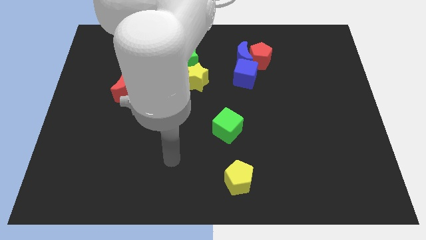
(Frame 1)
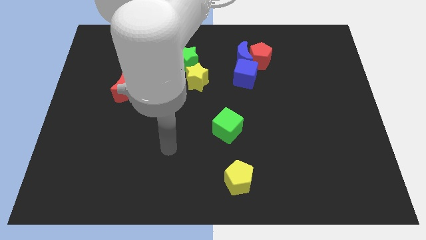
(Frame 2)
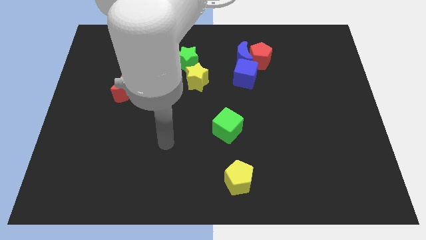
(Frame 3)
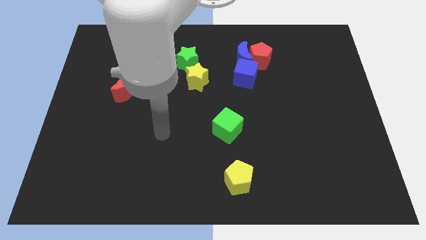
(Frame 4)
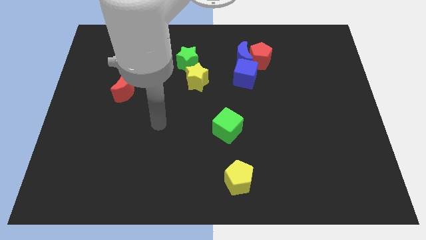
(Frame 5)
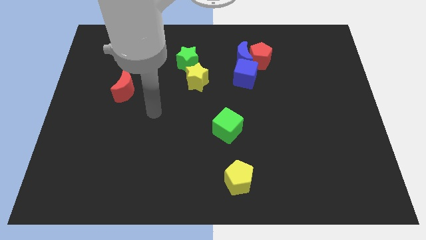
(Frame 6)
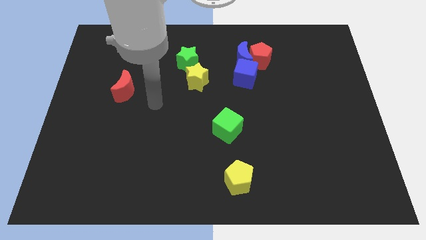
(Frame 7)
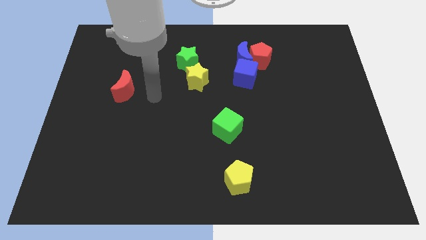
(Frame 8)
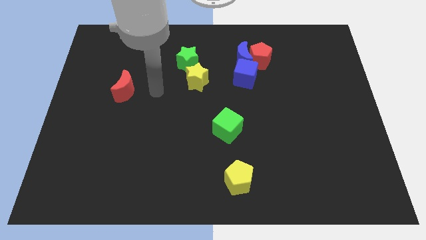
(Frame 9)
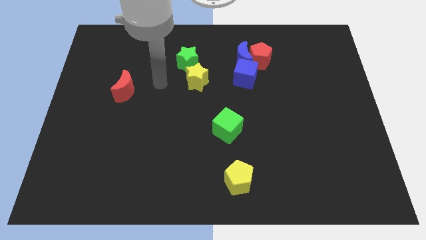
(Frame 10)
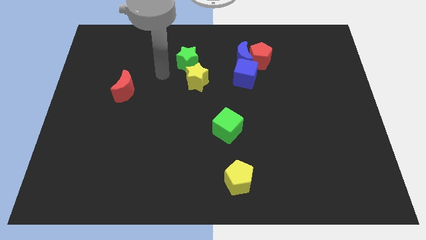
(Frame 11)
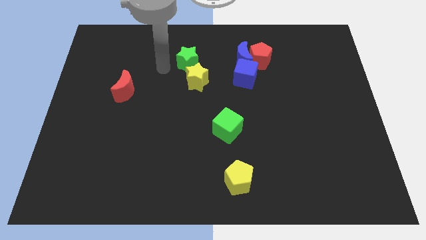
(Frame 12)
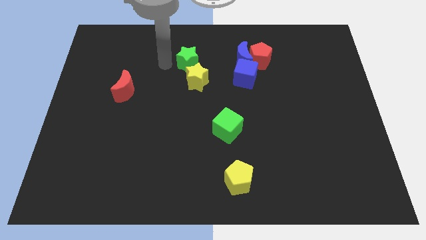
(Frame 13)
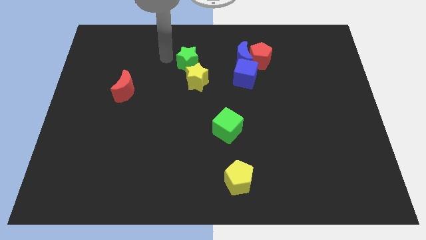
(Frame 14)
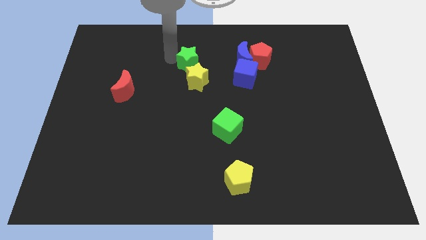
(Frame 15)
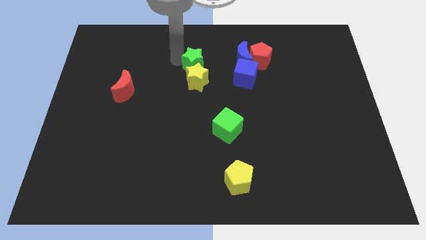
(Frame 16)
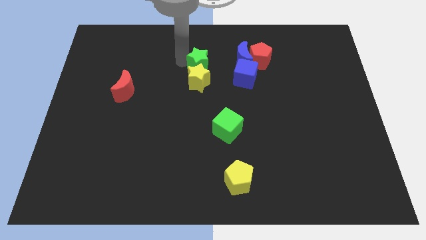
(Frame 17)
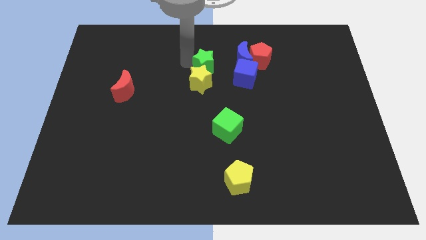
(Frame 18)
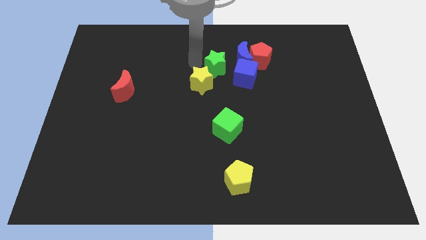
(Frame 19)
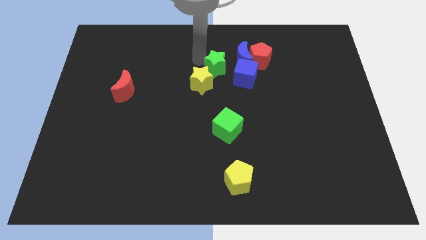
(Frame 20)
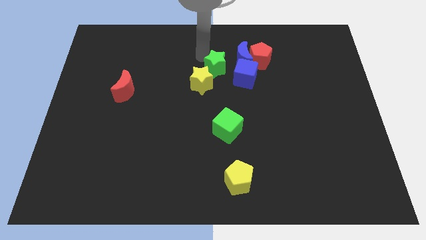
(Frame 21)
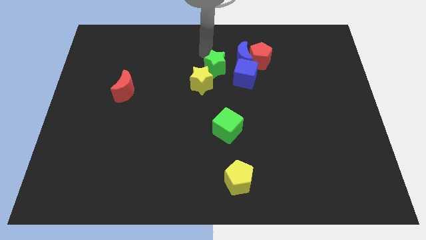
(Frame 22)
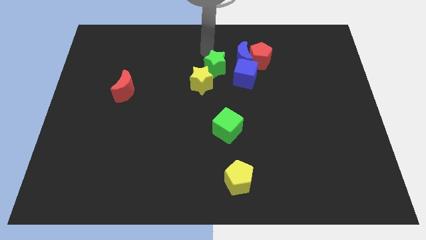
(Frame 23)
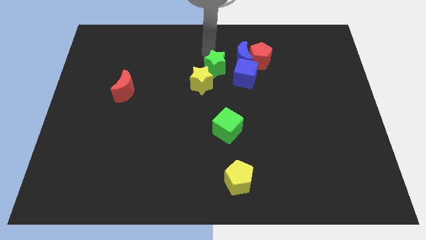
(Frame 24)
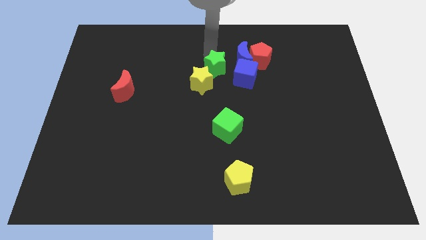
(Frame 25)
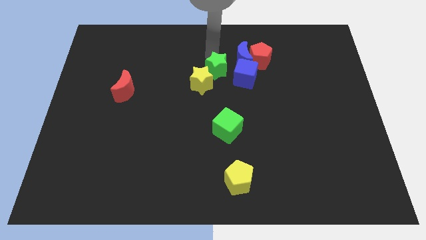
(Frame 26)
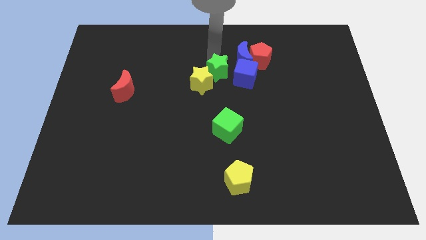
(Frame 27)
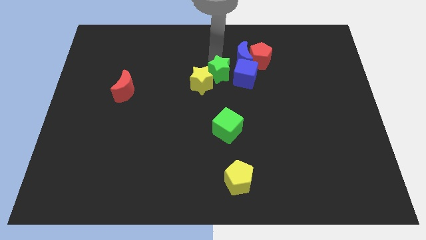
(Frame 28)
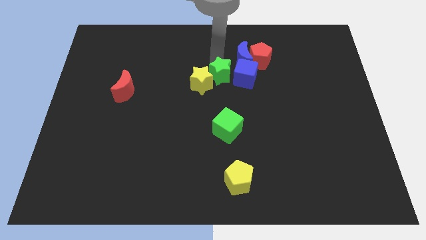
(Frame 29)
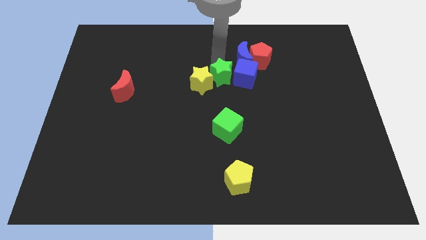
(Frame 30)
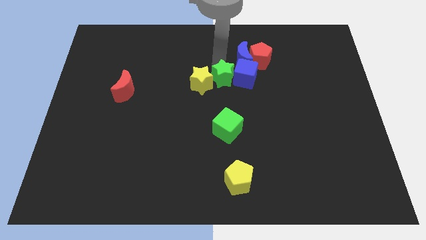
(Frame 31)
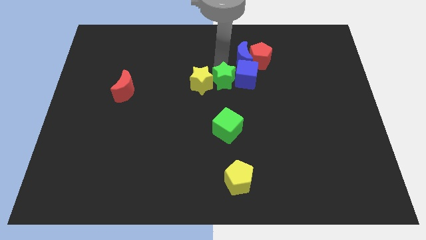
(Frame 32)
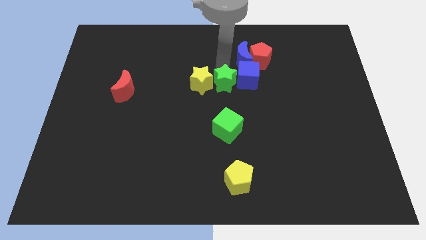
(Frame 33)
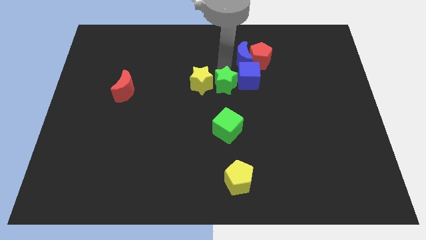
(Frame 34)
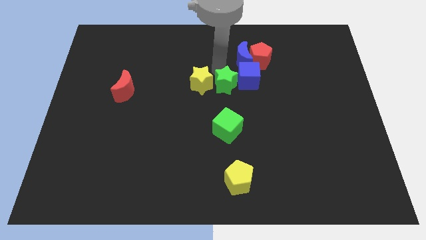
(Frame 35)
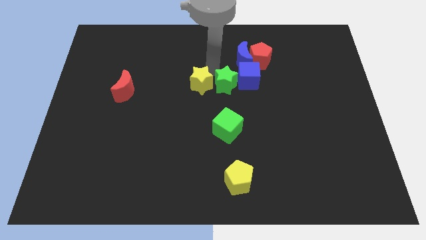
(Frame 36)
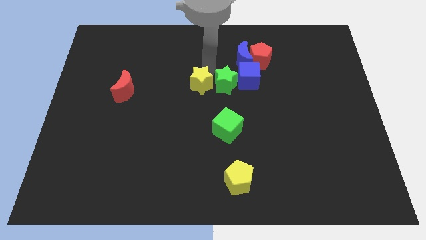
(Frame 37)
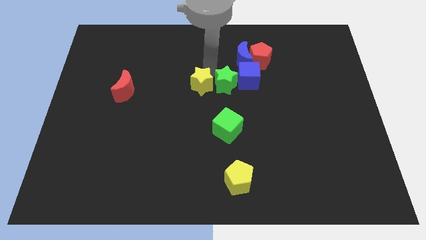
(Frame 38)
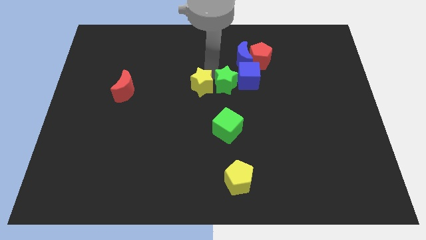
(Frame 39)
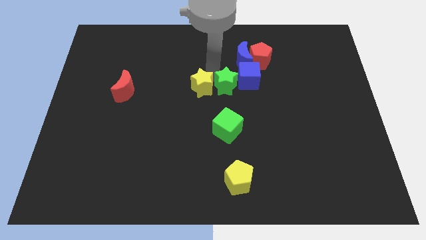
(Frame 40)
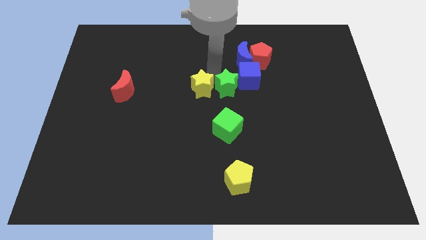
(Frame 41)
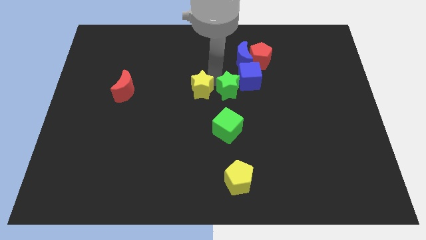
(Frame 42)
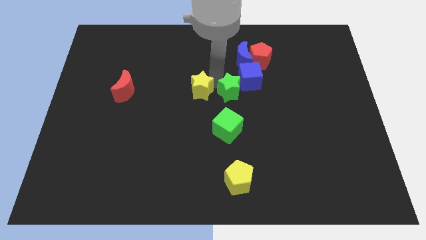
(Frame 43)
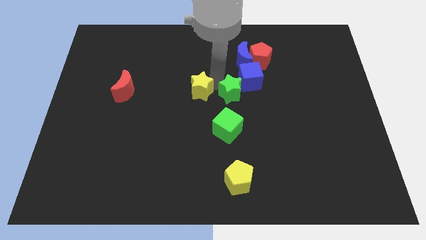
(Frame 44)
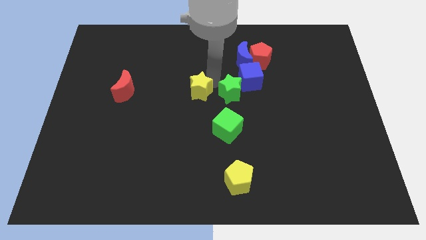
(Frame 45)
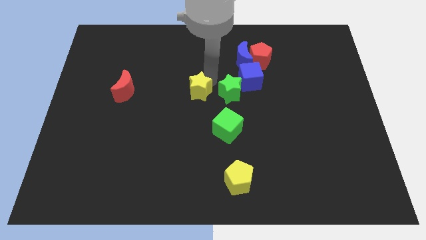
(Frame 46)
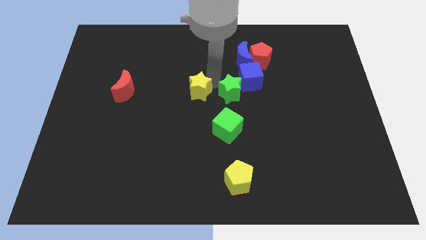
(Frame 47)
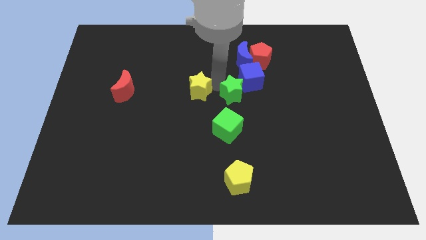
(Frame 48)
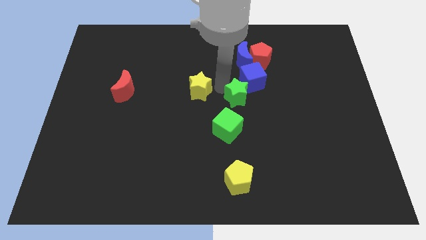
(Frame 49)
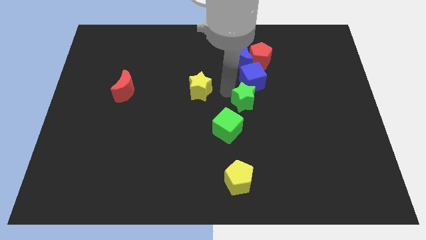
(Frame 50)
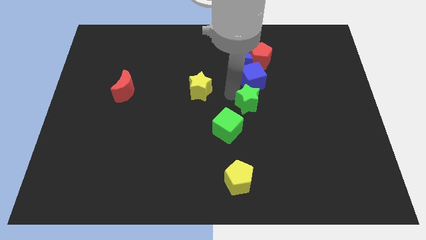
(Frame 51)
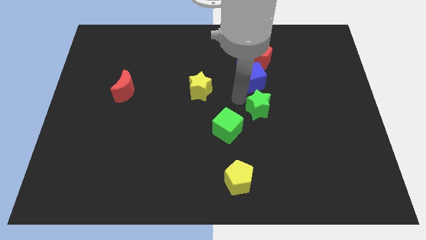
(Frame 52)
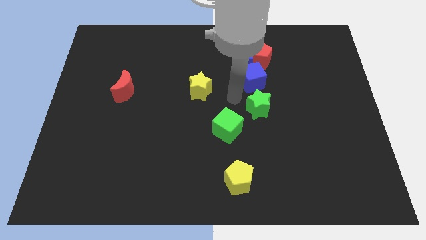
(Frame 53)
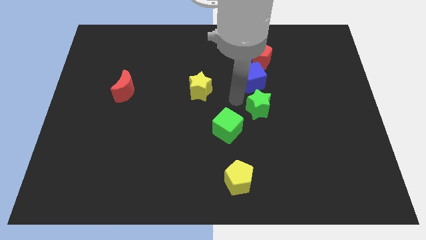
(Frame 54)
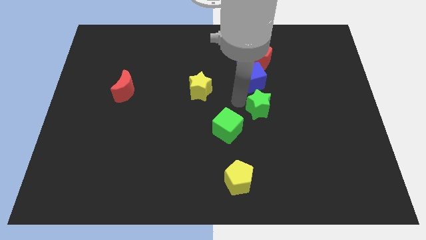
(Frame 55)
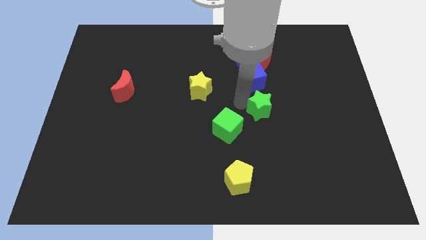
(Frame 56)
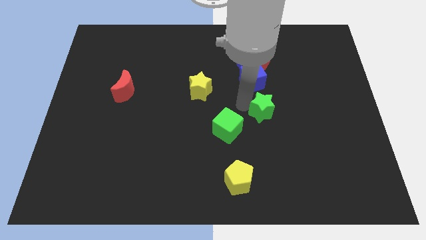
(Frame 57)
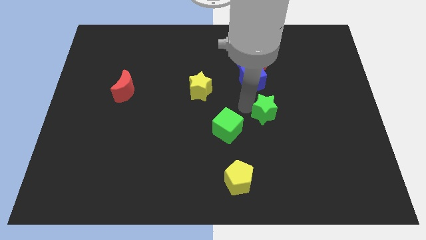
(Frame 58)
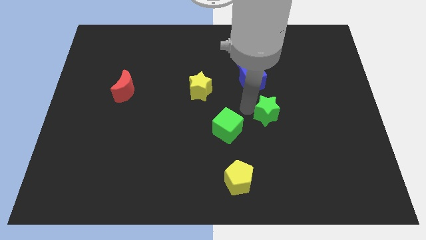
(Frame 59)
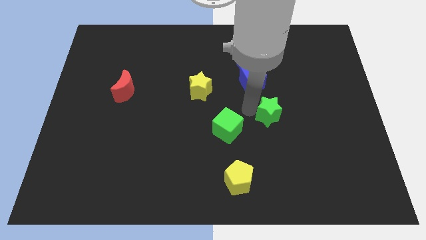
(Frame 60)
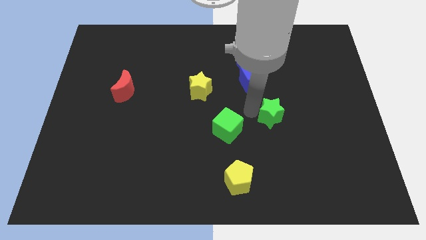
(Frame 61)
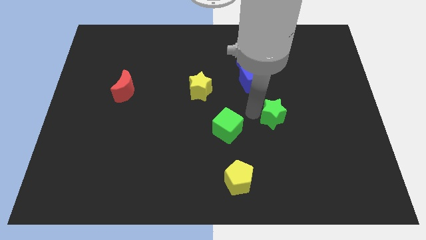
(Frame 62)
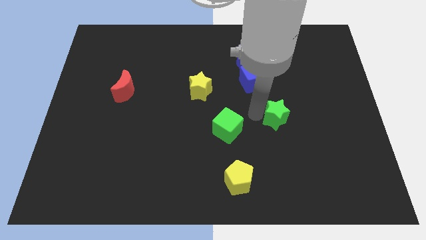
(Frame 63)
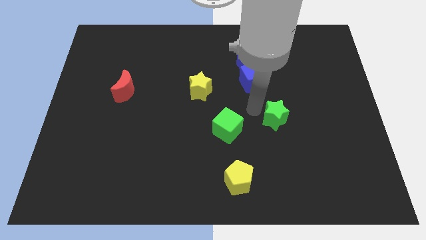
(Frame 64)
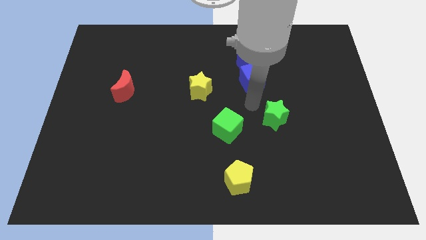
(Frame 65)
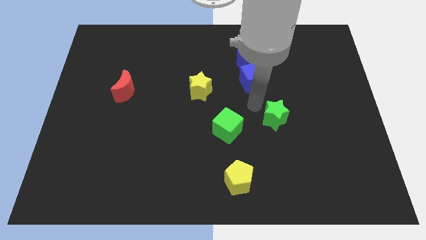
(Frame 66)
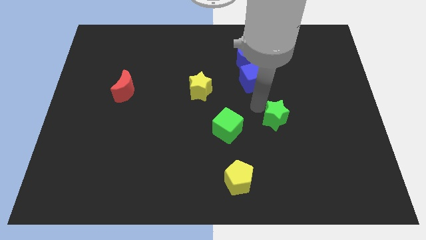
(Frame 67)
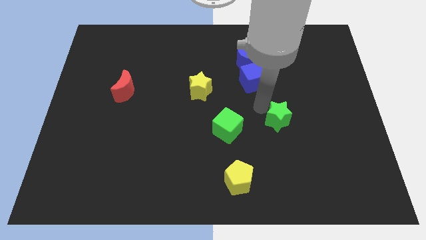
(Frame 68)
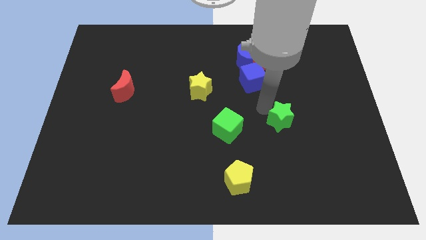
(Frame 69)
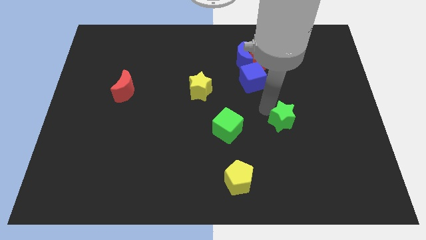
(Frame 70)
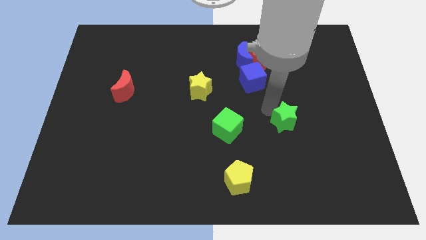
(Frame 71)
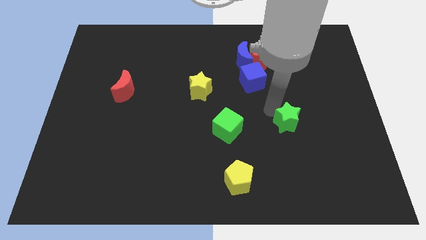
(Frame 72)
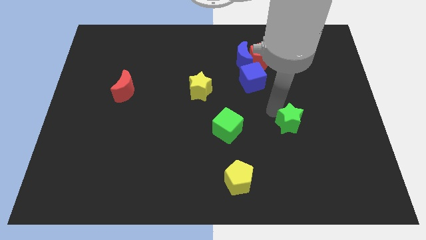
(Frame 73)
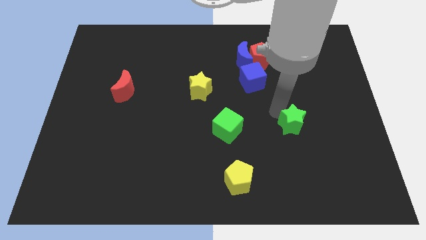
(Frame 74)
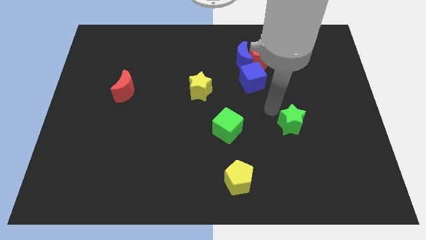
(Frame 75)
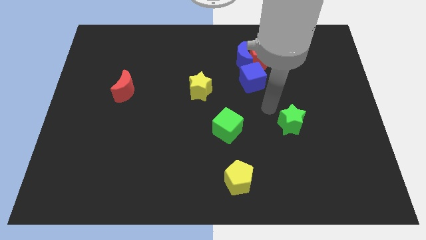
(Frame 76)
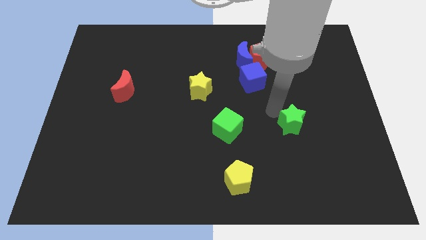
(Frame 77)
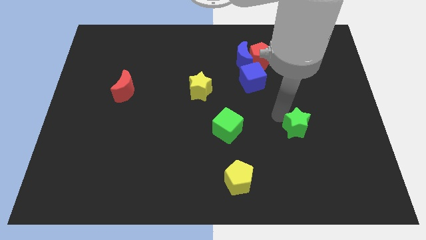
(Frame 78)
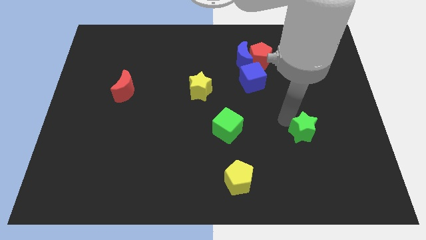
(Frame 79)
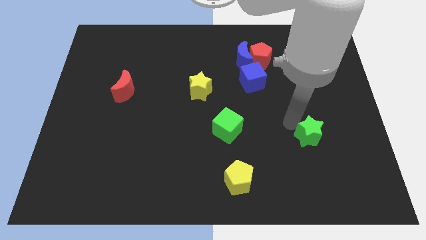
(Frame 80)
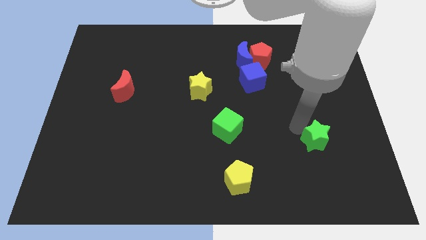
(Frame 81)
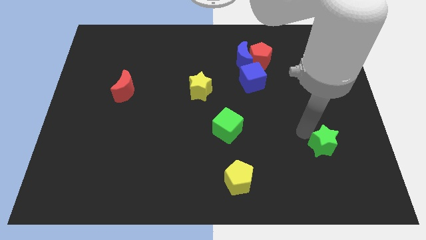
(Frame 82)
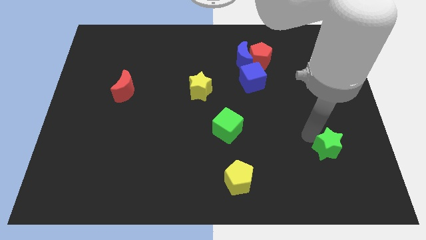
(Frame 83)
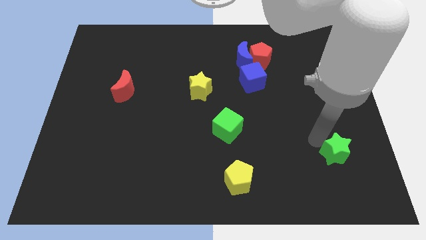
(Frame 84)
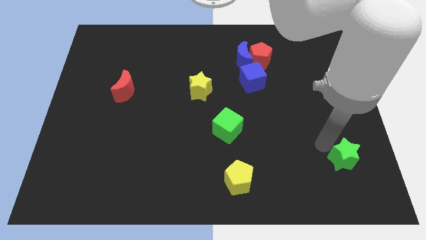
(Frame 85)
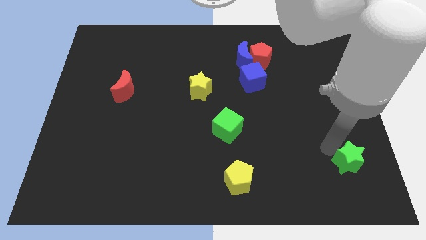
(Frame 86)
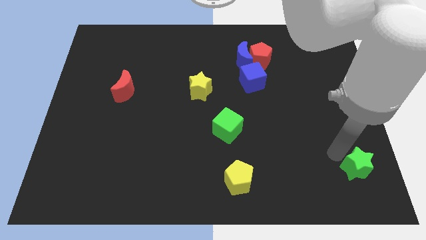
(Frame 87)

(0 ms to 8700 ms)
push the green star to the bottom right corner
